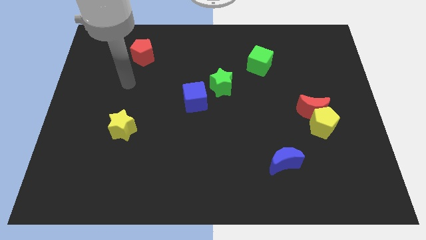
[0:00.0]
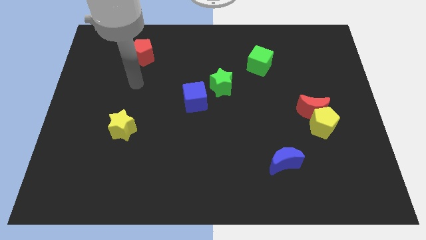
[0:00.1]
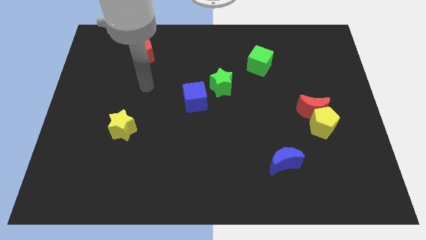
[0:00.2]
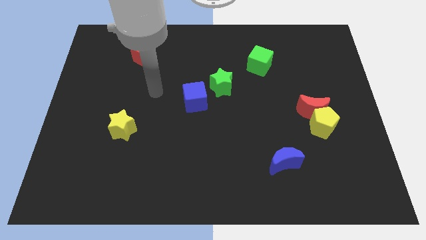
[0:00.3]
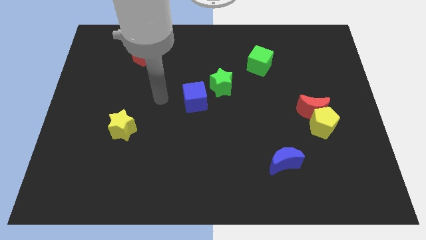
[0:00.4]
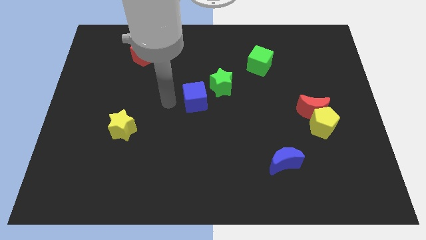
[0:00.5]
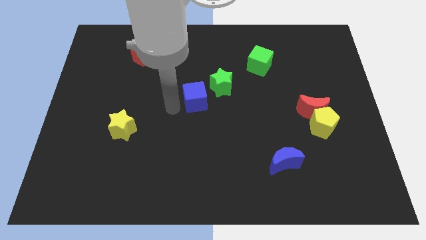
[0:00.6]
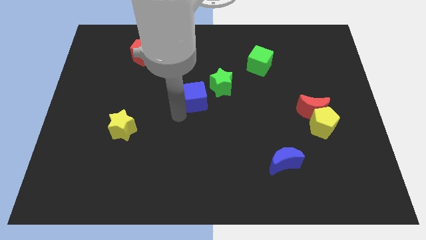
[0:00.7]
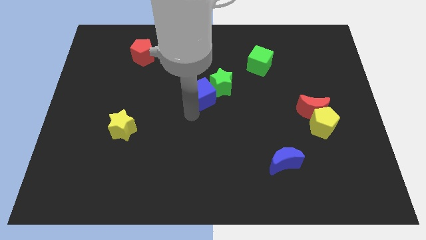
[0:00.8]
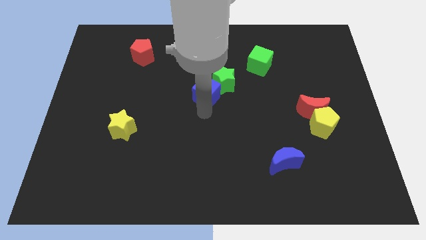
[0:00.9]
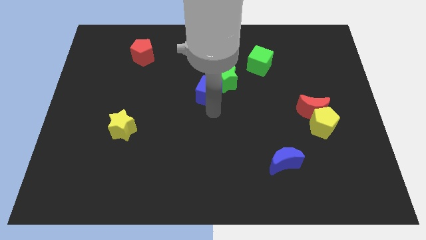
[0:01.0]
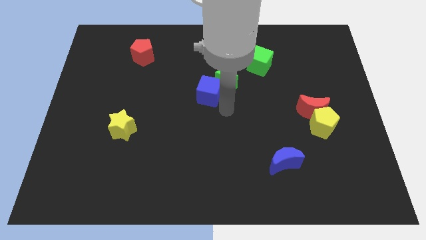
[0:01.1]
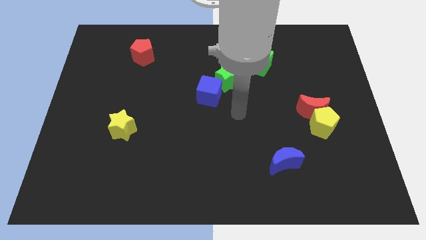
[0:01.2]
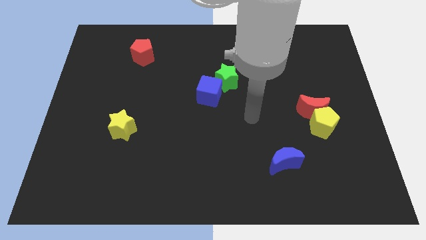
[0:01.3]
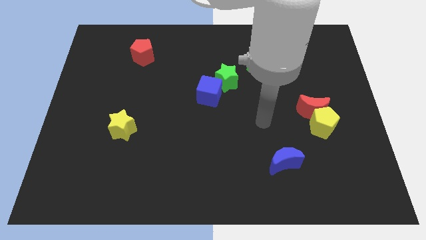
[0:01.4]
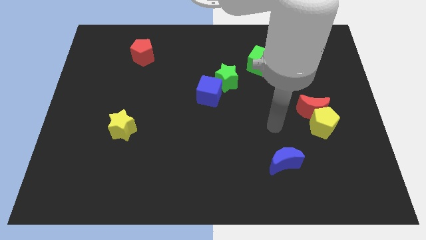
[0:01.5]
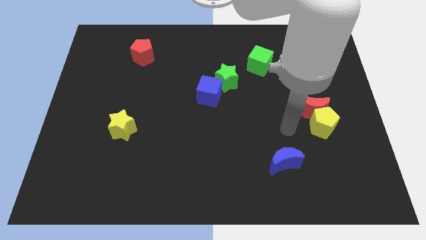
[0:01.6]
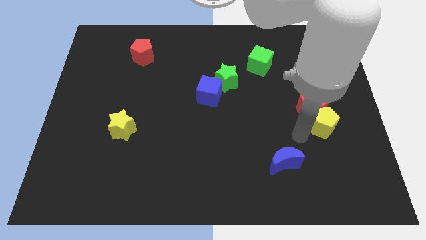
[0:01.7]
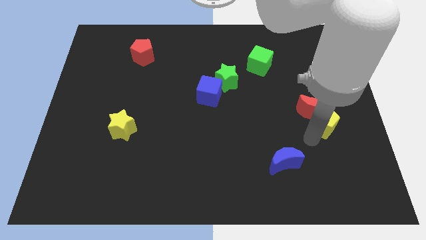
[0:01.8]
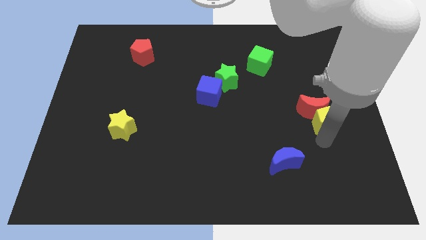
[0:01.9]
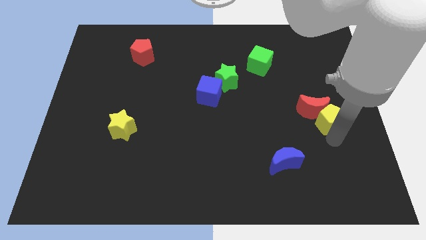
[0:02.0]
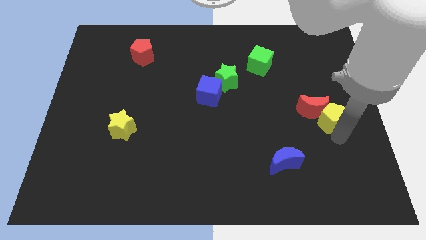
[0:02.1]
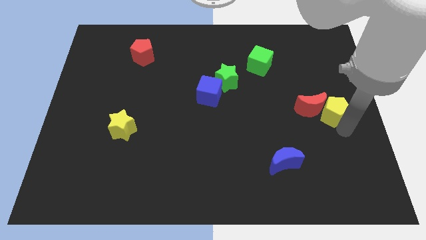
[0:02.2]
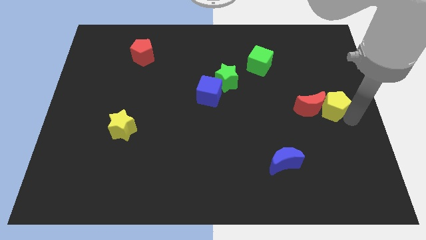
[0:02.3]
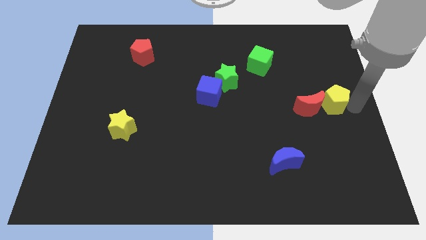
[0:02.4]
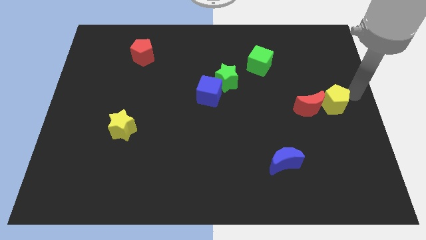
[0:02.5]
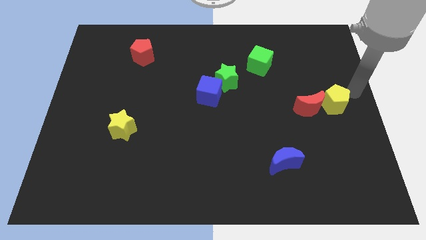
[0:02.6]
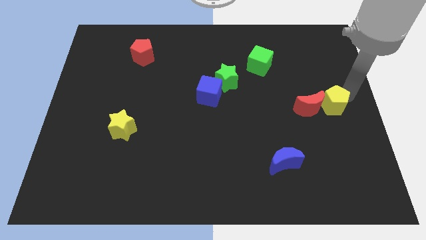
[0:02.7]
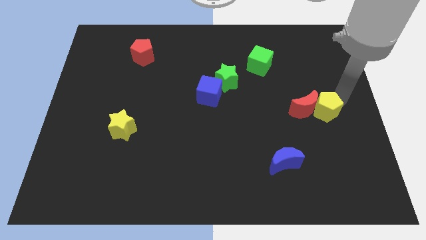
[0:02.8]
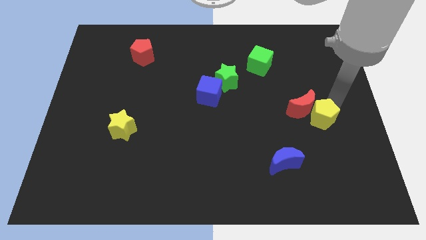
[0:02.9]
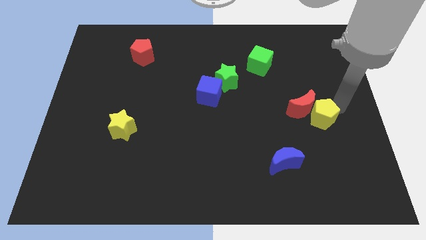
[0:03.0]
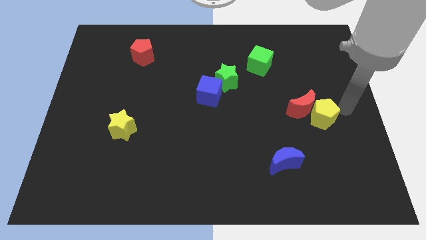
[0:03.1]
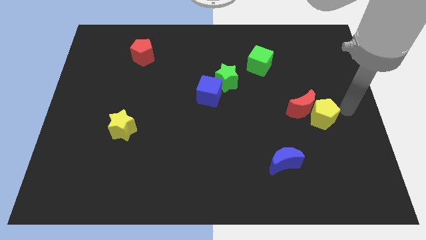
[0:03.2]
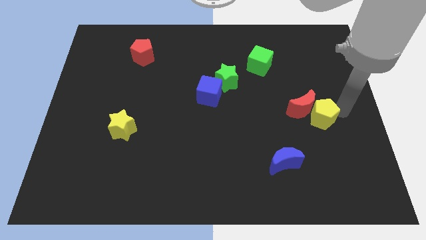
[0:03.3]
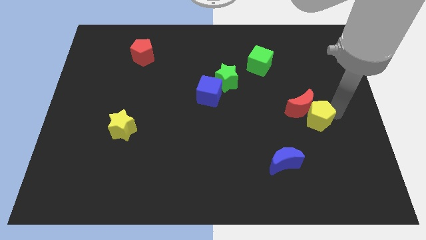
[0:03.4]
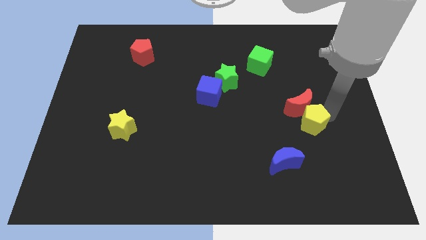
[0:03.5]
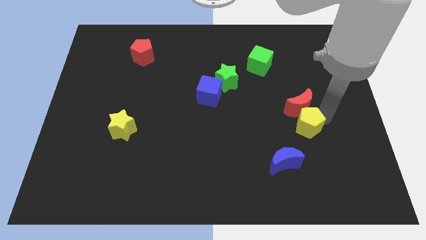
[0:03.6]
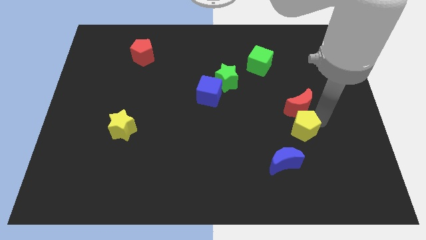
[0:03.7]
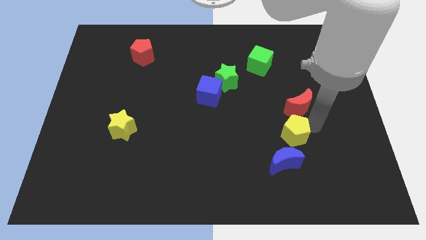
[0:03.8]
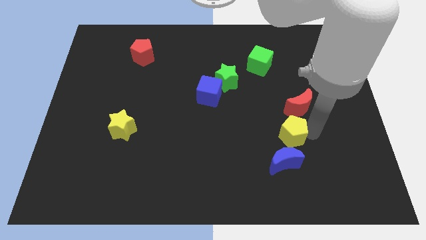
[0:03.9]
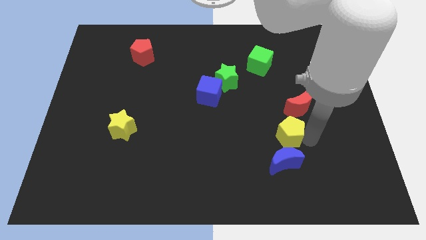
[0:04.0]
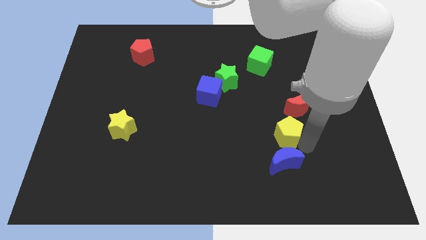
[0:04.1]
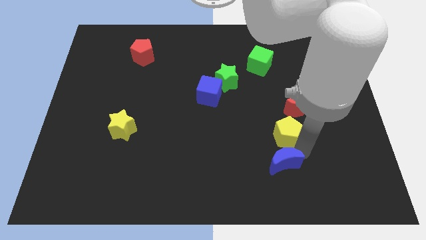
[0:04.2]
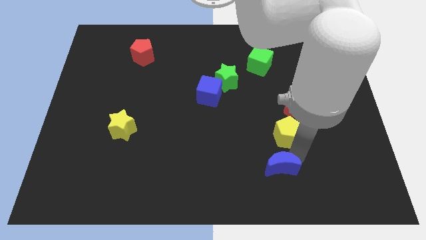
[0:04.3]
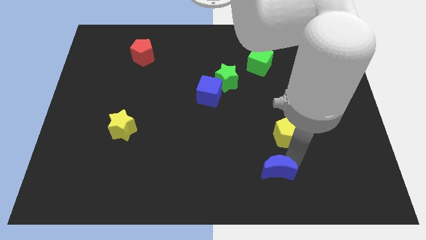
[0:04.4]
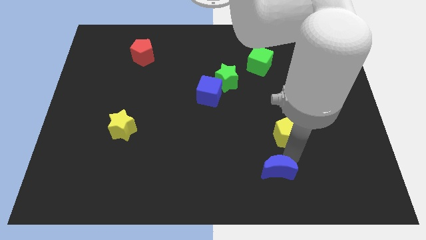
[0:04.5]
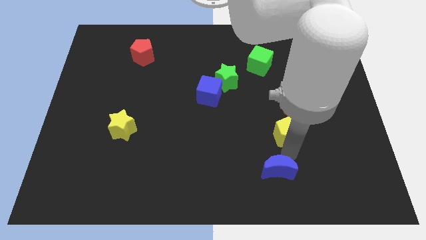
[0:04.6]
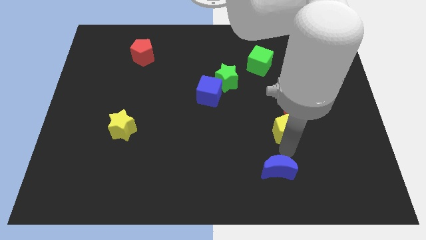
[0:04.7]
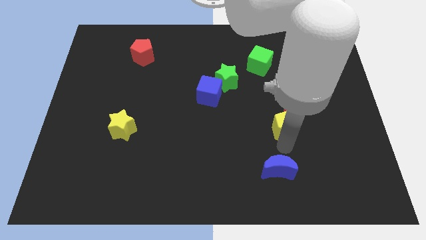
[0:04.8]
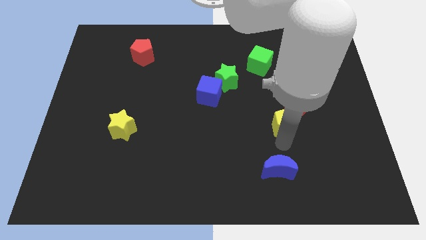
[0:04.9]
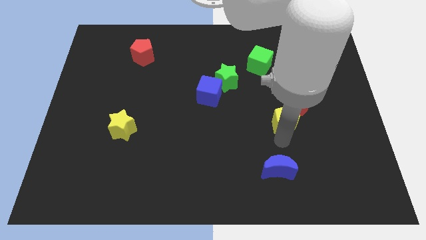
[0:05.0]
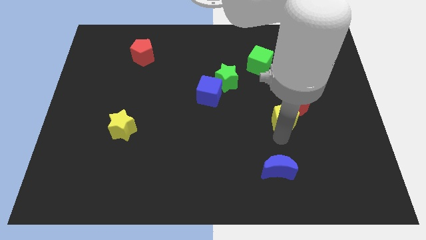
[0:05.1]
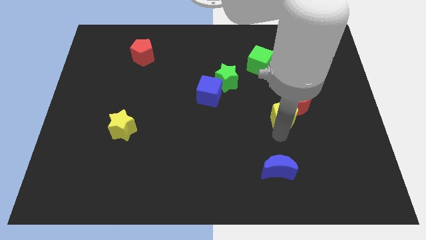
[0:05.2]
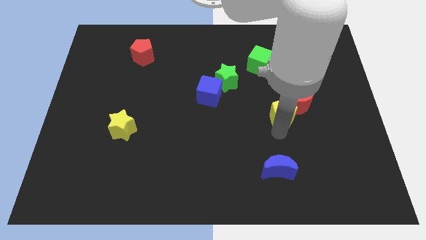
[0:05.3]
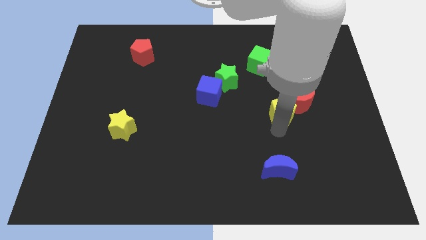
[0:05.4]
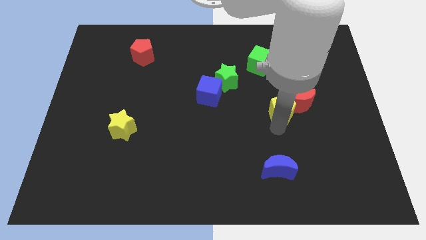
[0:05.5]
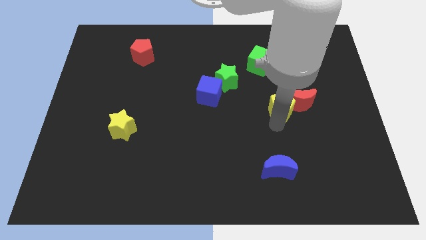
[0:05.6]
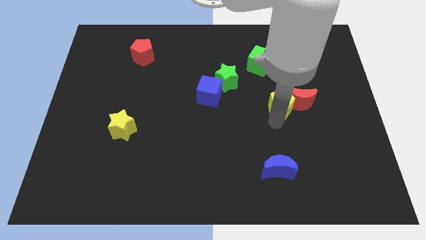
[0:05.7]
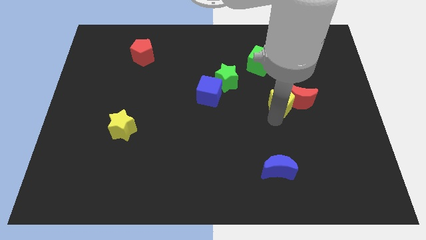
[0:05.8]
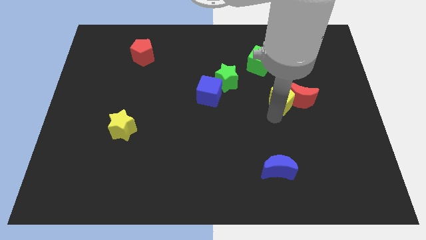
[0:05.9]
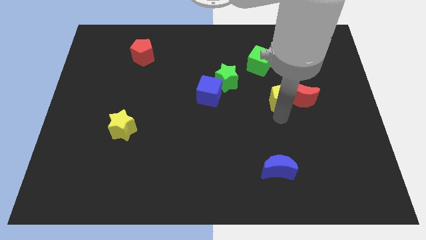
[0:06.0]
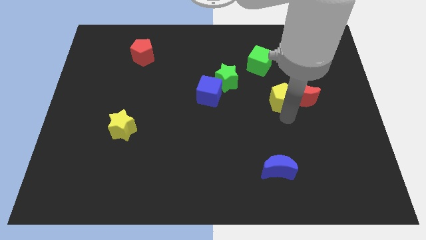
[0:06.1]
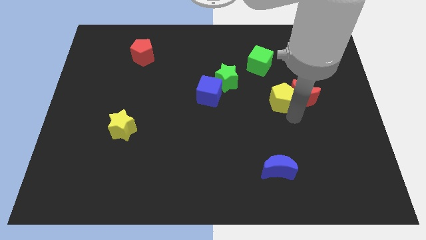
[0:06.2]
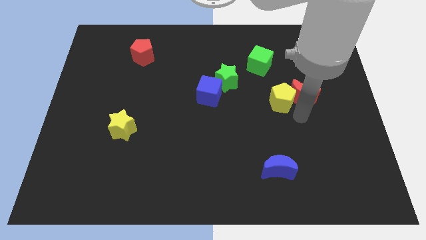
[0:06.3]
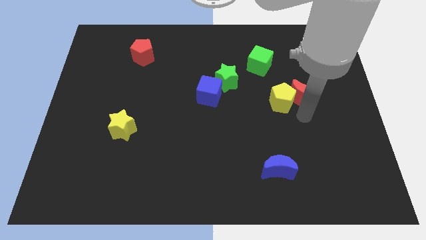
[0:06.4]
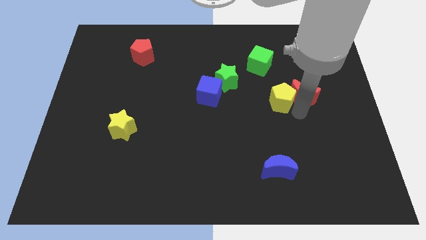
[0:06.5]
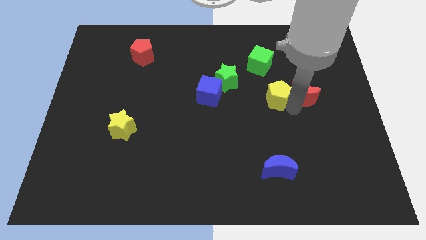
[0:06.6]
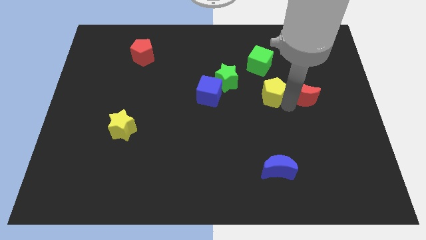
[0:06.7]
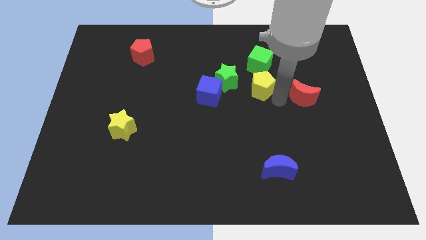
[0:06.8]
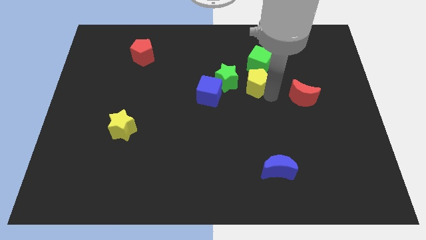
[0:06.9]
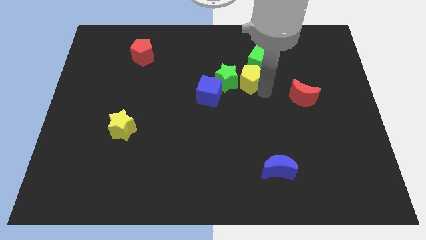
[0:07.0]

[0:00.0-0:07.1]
slide the yellow pentagon to the top right of the green star

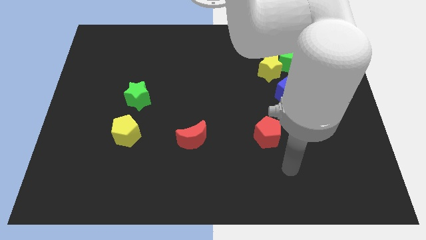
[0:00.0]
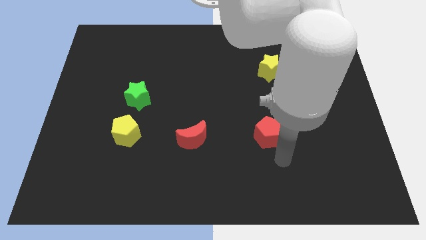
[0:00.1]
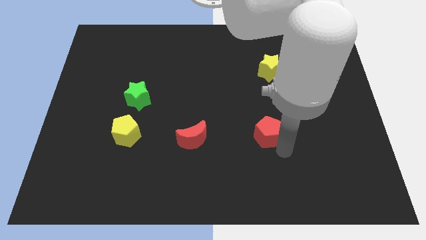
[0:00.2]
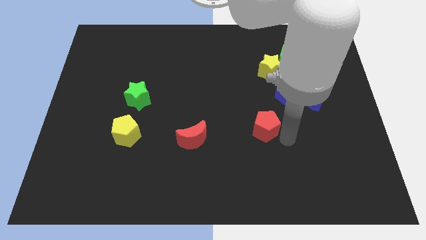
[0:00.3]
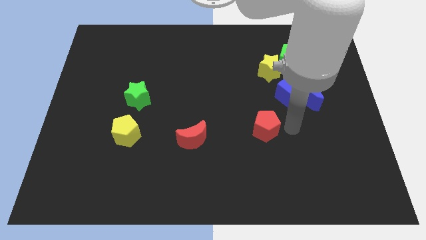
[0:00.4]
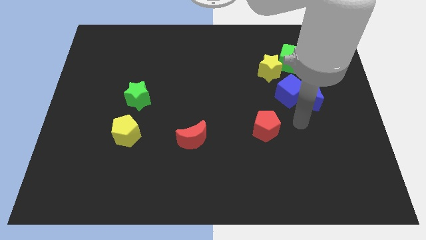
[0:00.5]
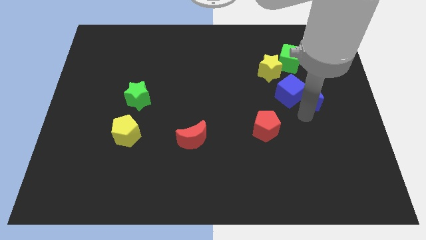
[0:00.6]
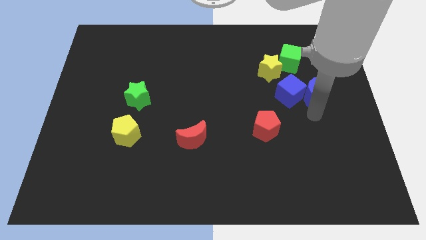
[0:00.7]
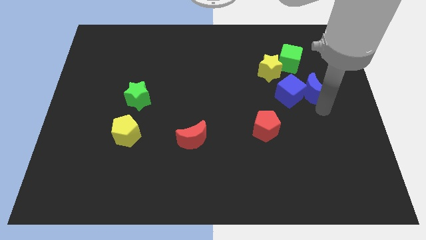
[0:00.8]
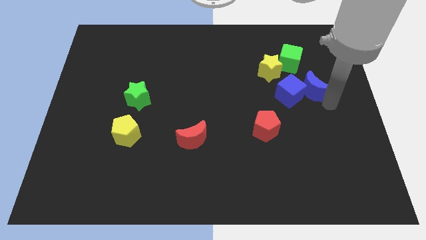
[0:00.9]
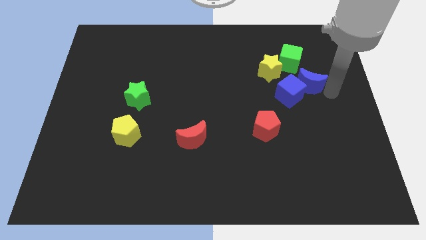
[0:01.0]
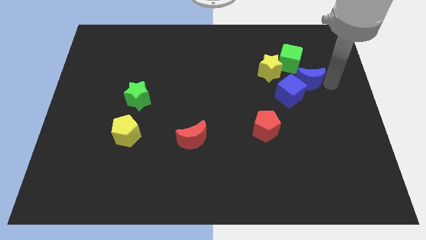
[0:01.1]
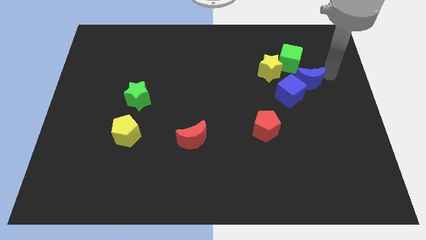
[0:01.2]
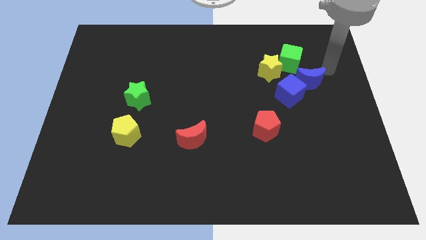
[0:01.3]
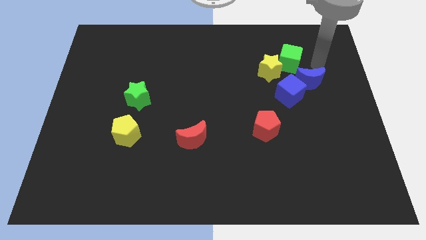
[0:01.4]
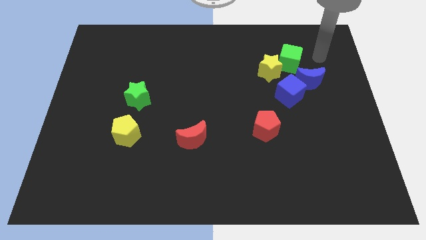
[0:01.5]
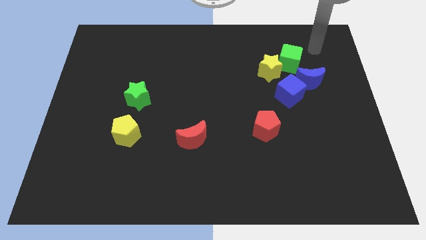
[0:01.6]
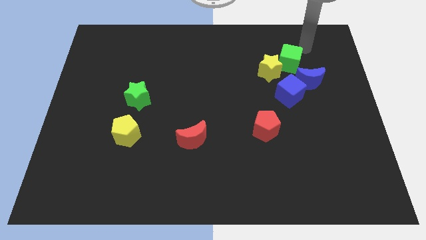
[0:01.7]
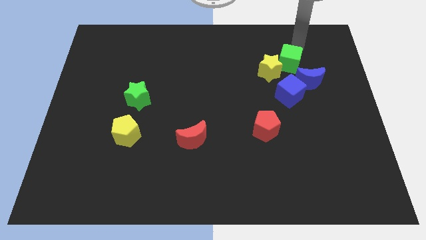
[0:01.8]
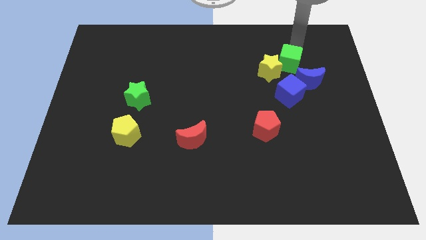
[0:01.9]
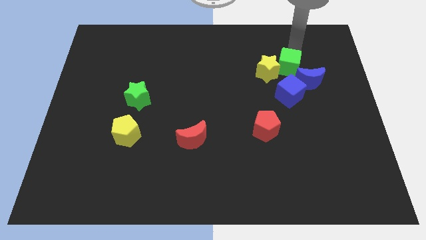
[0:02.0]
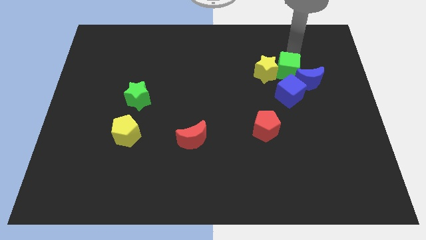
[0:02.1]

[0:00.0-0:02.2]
move the green cube just left of the blue moon
